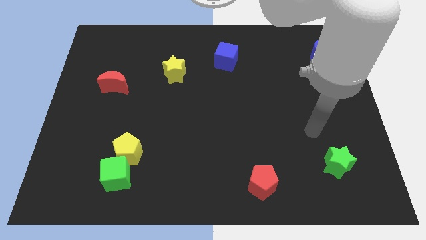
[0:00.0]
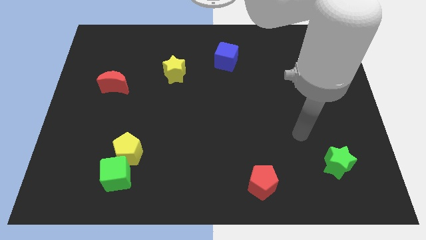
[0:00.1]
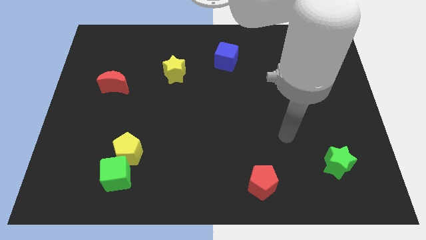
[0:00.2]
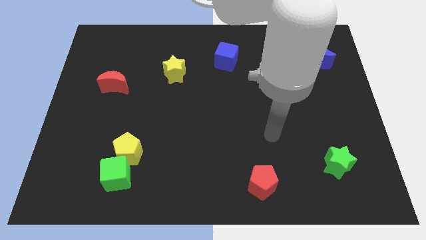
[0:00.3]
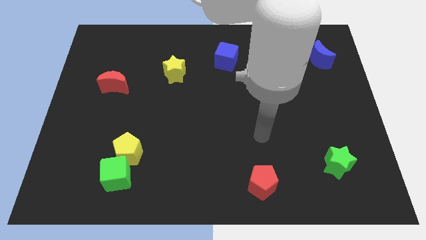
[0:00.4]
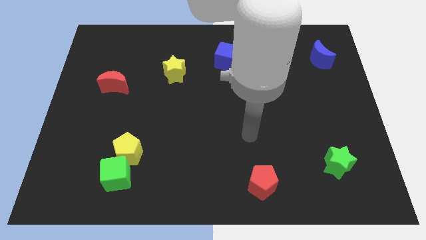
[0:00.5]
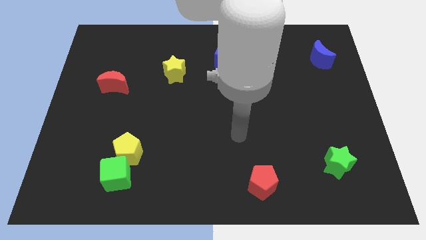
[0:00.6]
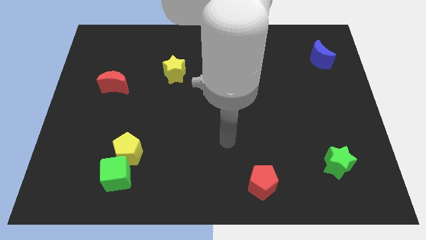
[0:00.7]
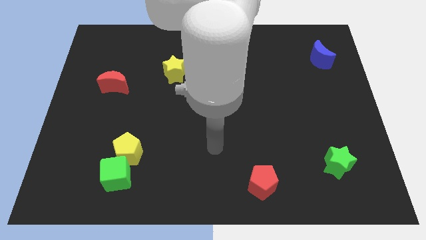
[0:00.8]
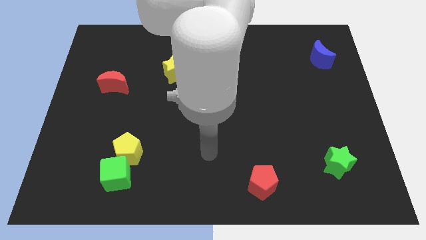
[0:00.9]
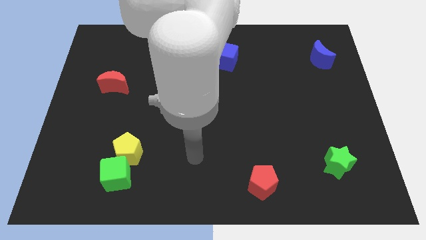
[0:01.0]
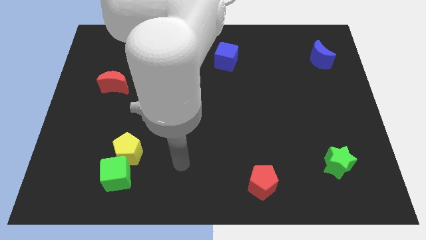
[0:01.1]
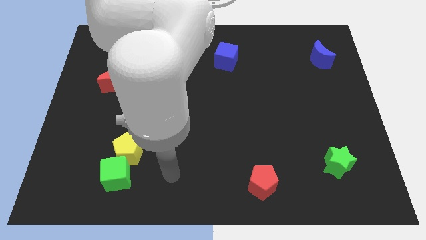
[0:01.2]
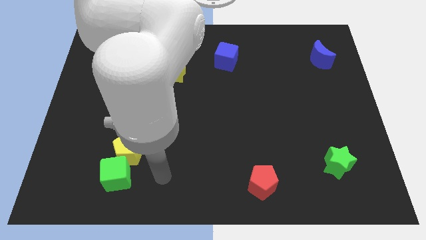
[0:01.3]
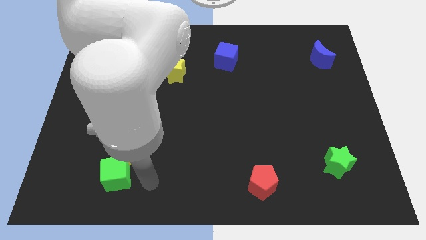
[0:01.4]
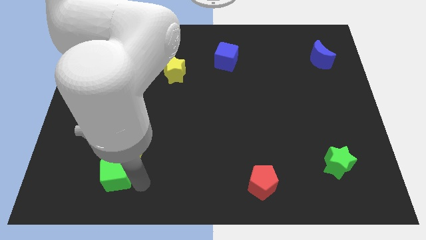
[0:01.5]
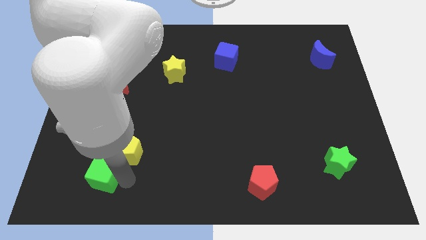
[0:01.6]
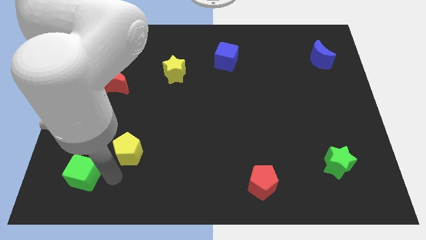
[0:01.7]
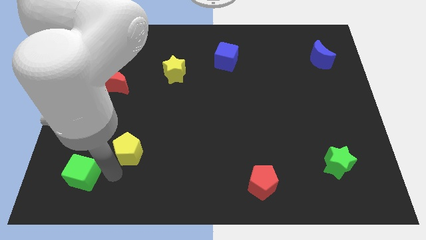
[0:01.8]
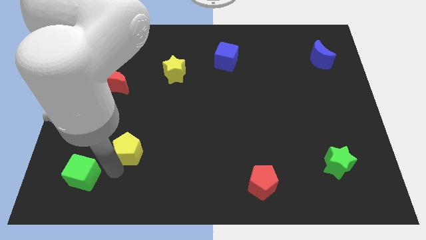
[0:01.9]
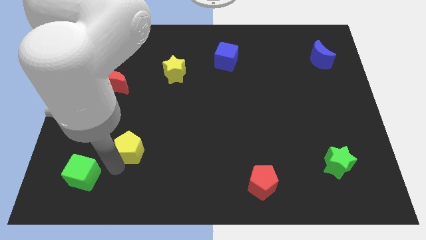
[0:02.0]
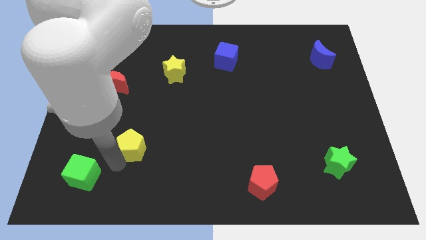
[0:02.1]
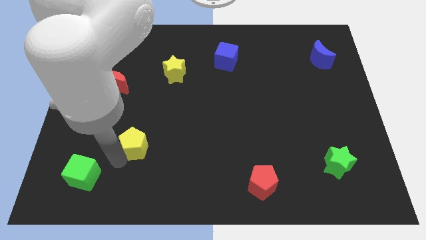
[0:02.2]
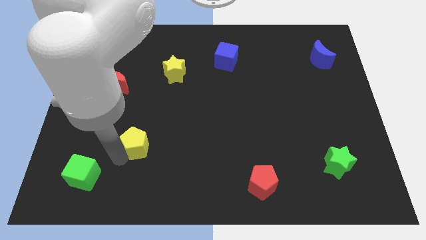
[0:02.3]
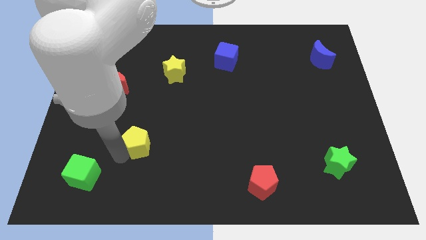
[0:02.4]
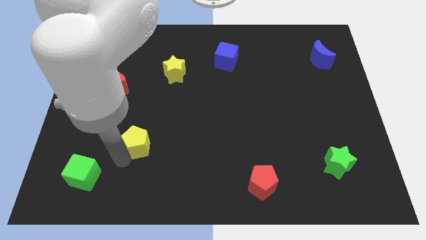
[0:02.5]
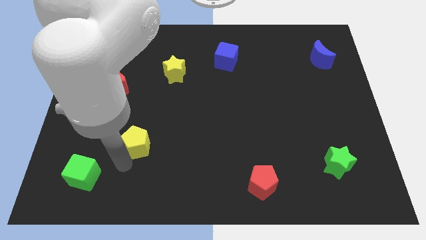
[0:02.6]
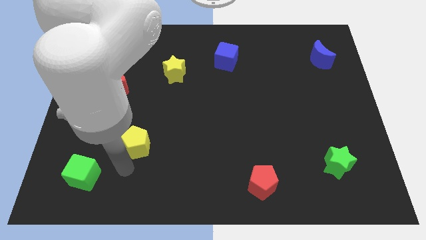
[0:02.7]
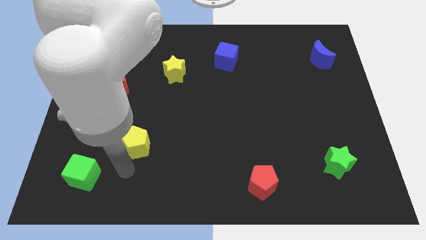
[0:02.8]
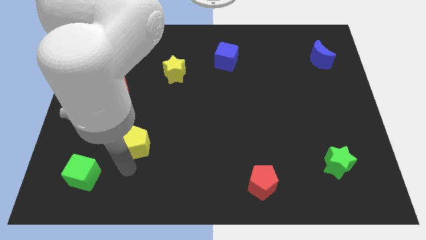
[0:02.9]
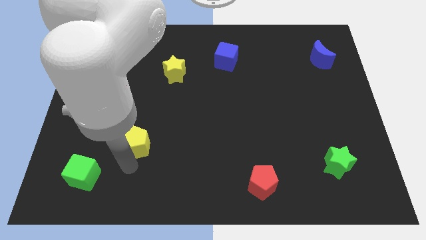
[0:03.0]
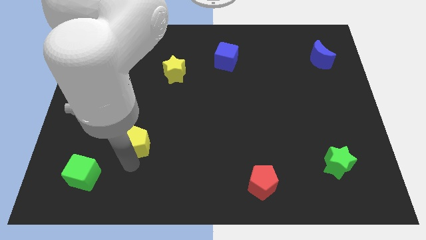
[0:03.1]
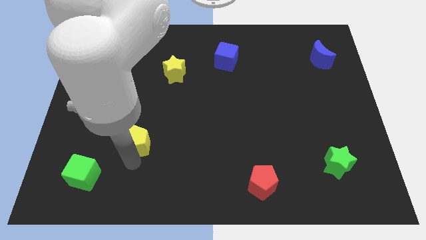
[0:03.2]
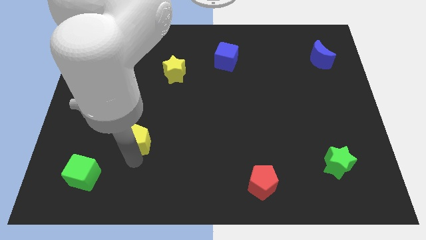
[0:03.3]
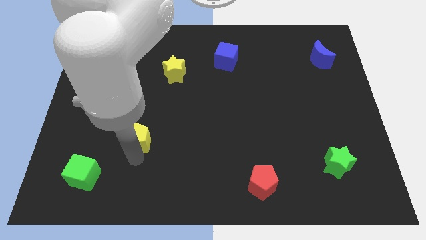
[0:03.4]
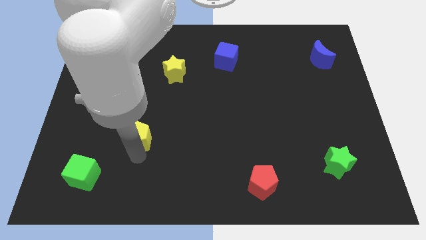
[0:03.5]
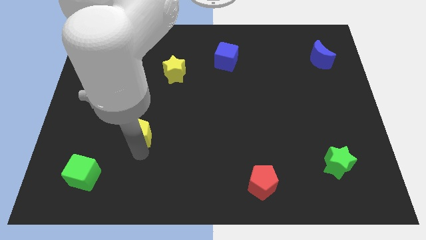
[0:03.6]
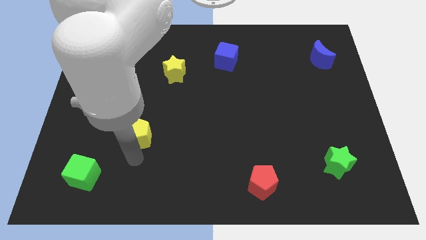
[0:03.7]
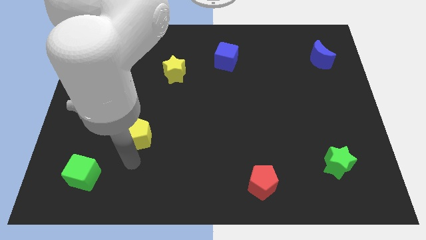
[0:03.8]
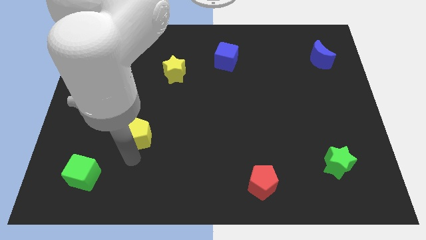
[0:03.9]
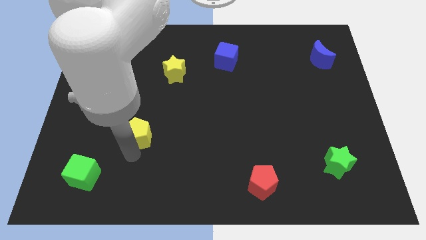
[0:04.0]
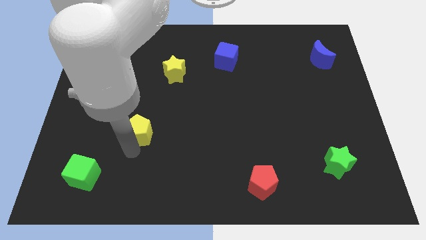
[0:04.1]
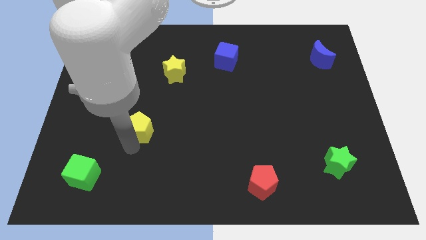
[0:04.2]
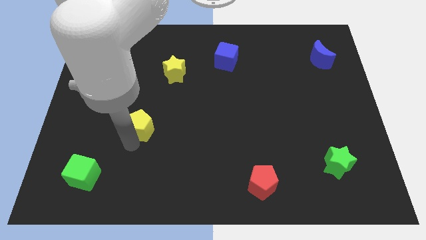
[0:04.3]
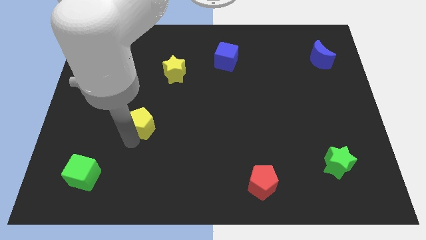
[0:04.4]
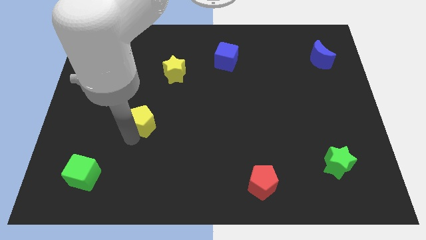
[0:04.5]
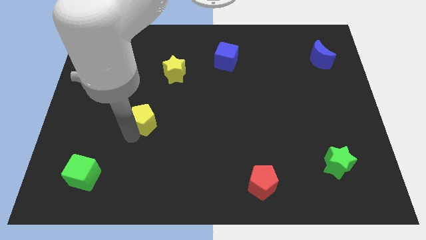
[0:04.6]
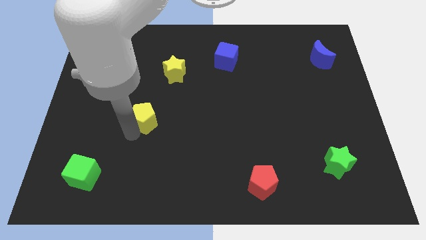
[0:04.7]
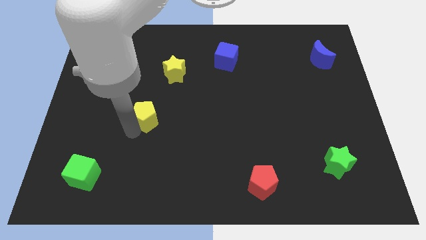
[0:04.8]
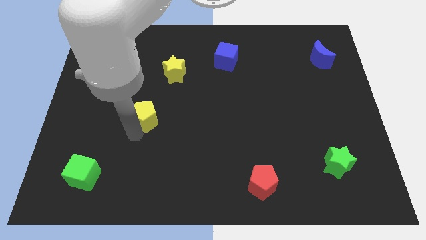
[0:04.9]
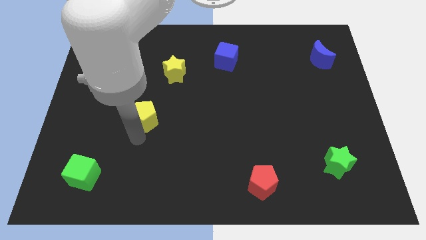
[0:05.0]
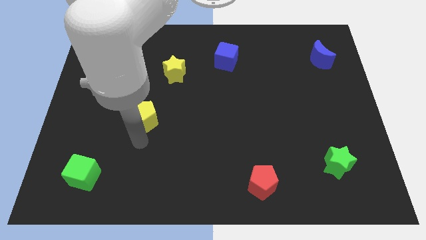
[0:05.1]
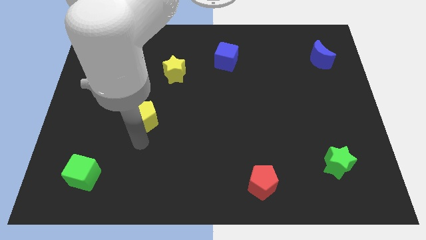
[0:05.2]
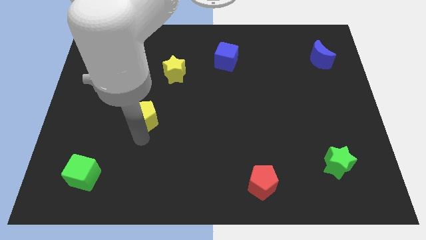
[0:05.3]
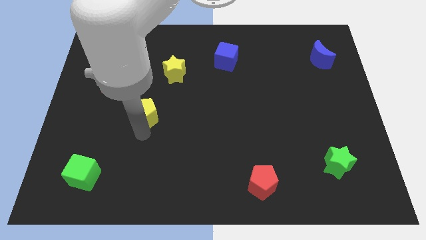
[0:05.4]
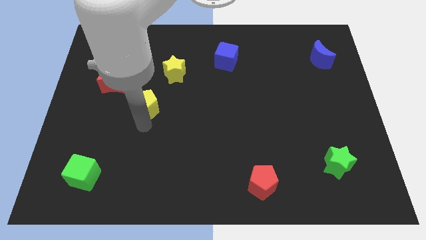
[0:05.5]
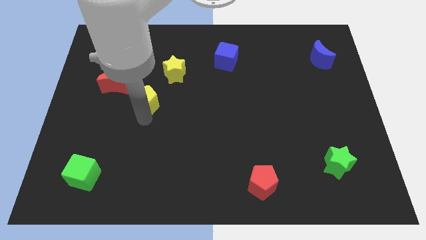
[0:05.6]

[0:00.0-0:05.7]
put the yellow pentagon to the bottom left side of the yellow star
